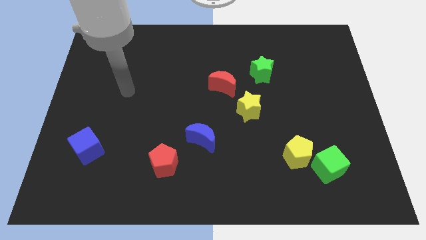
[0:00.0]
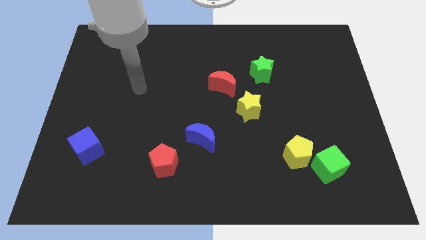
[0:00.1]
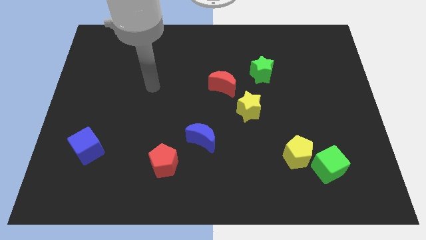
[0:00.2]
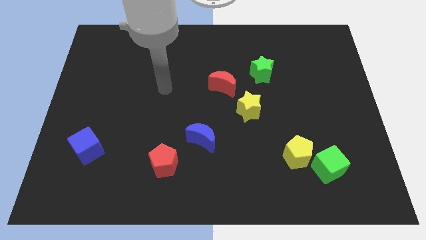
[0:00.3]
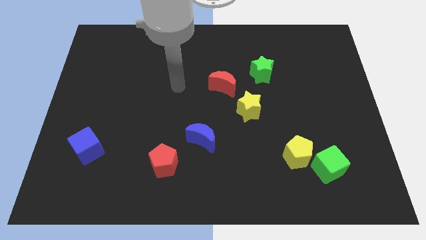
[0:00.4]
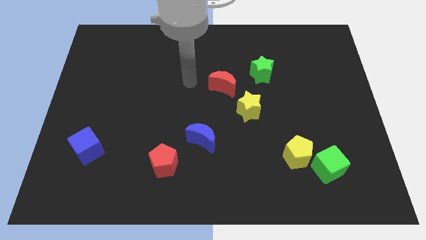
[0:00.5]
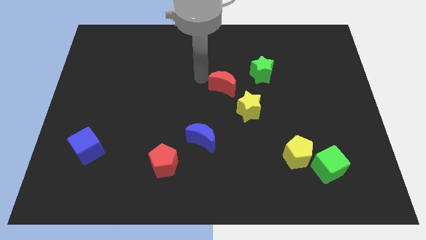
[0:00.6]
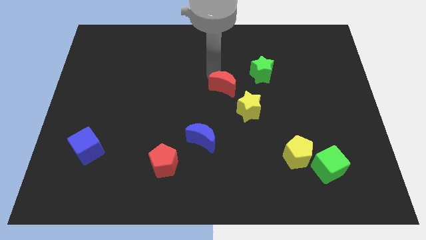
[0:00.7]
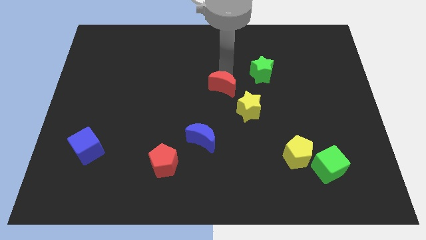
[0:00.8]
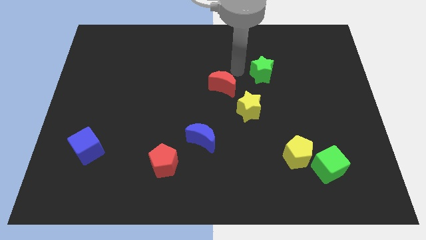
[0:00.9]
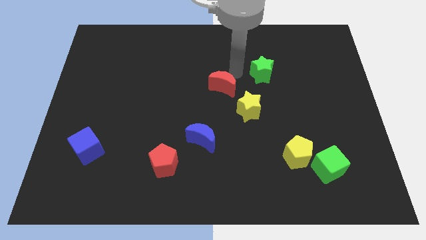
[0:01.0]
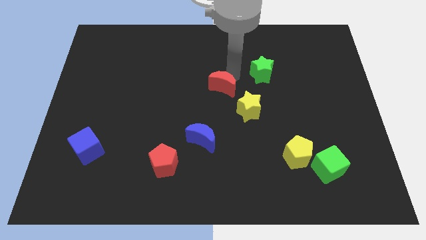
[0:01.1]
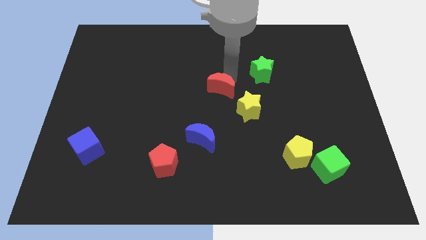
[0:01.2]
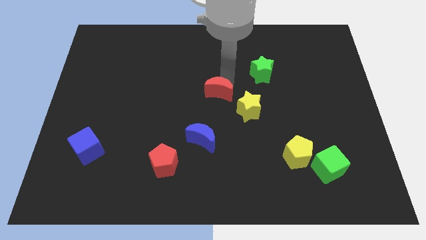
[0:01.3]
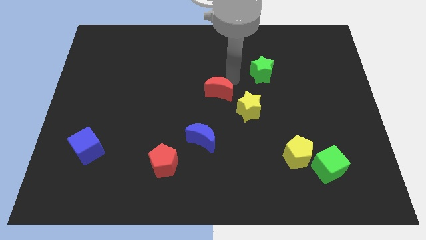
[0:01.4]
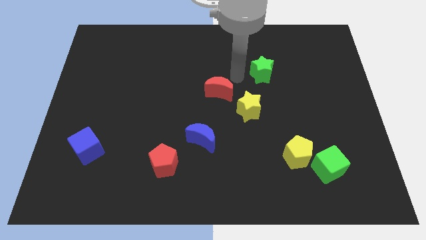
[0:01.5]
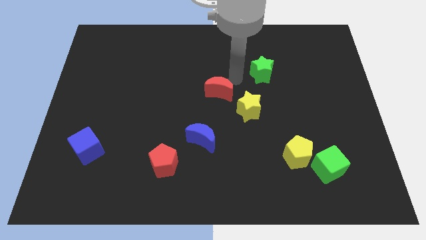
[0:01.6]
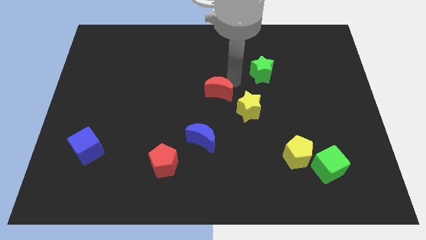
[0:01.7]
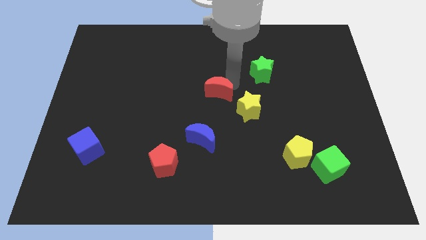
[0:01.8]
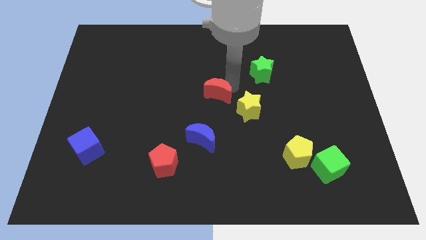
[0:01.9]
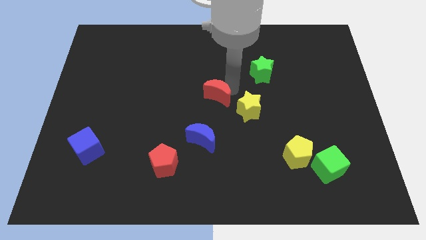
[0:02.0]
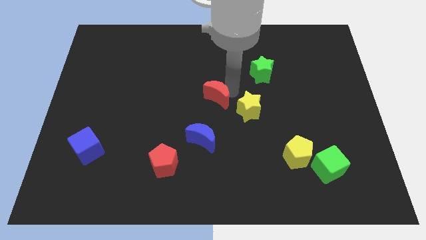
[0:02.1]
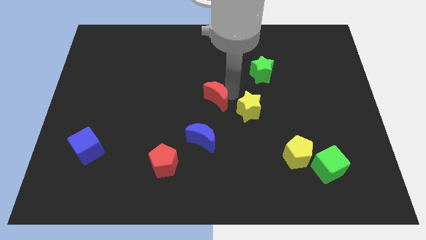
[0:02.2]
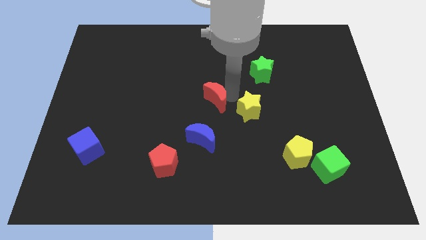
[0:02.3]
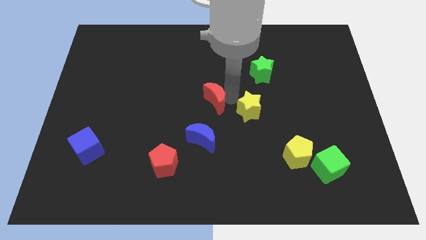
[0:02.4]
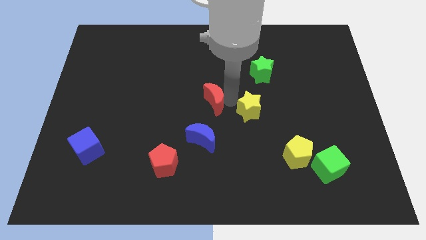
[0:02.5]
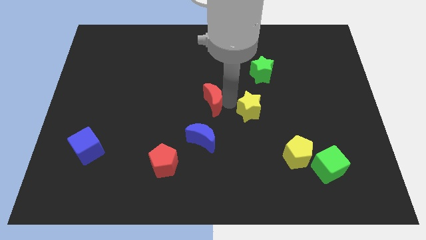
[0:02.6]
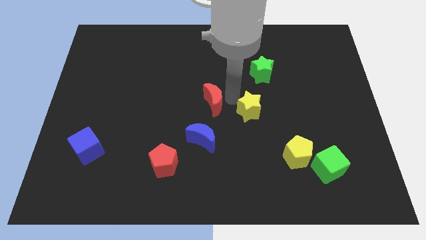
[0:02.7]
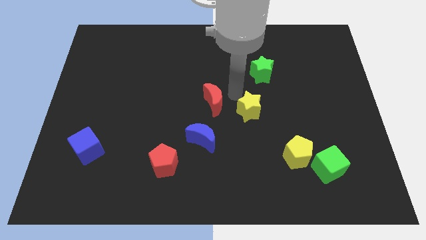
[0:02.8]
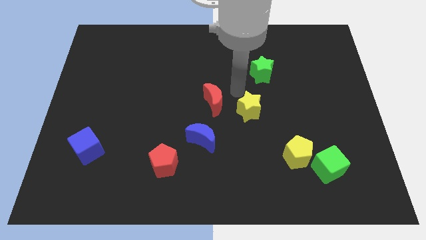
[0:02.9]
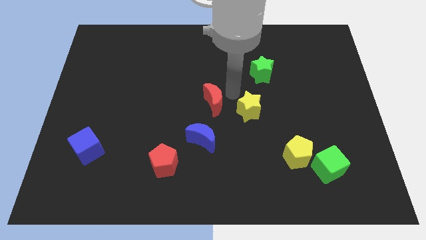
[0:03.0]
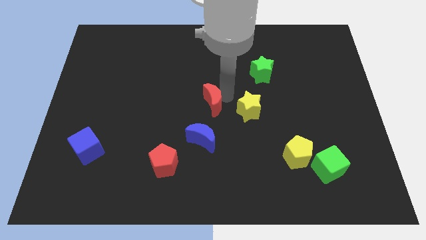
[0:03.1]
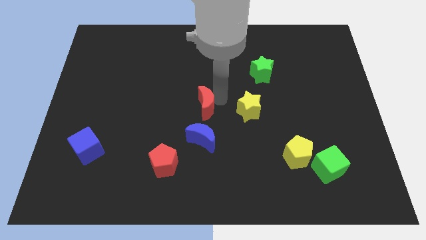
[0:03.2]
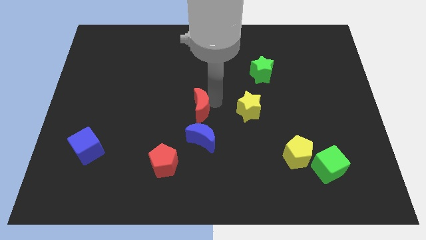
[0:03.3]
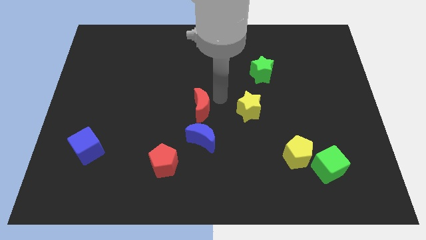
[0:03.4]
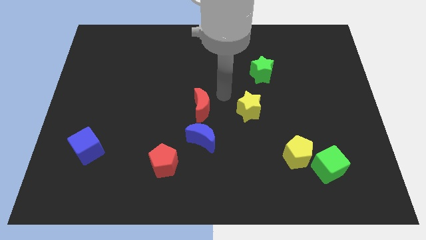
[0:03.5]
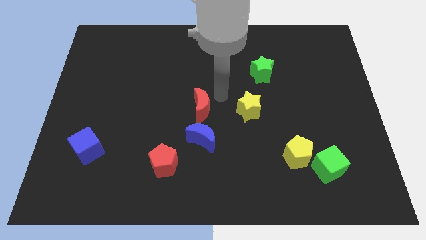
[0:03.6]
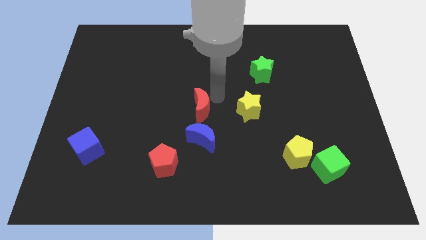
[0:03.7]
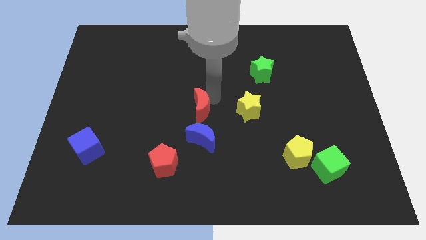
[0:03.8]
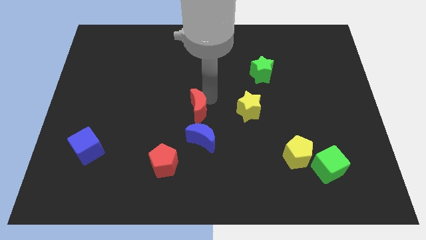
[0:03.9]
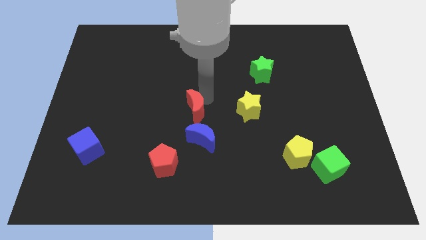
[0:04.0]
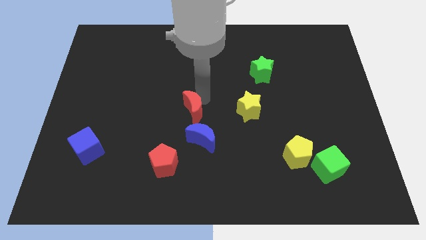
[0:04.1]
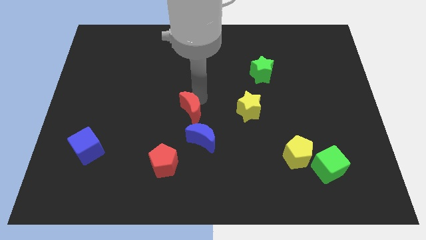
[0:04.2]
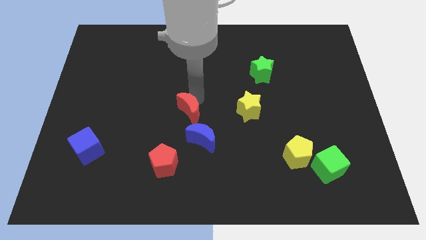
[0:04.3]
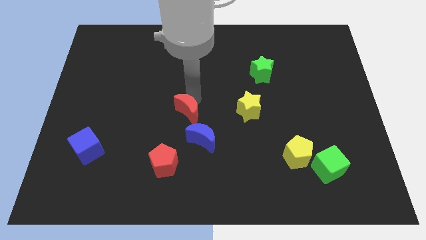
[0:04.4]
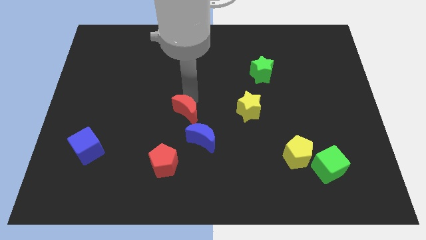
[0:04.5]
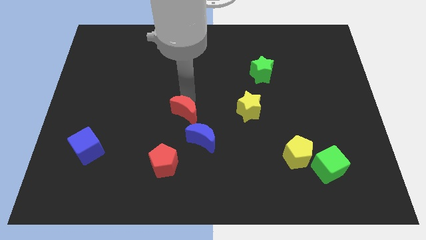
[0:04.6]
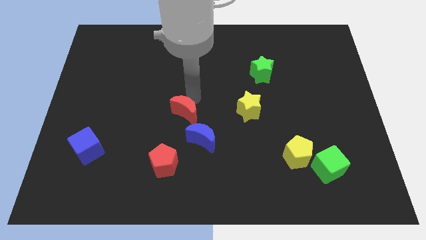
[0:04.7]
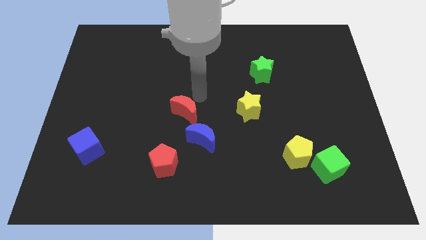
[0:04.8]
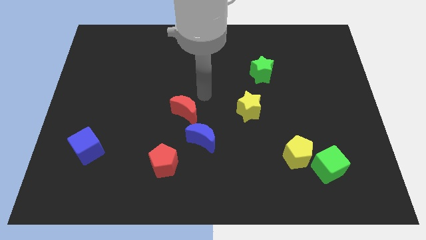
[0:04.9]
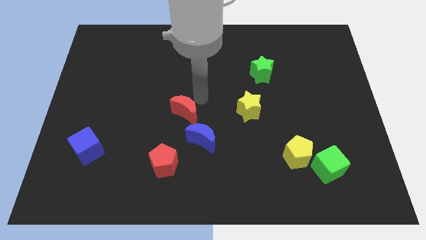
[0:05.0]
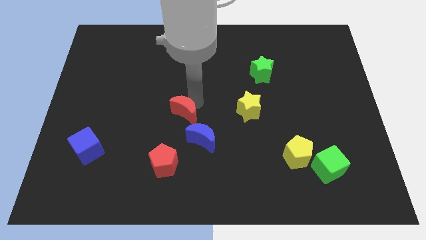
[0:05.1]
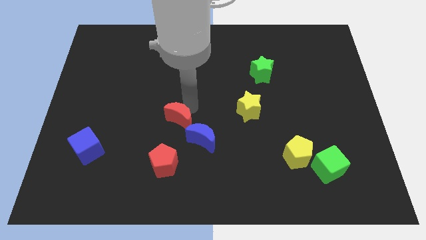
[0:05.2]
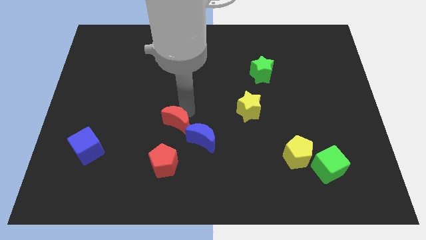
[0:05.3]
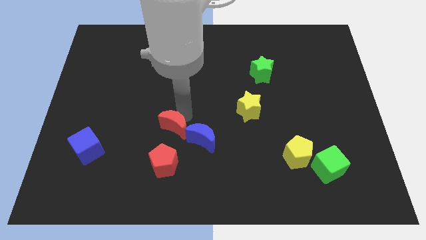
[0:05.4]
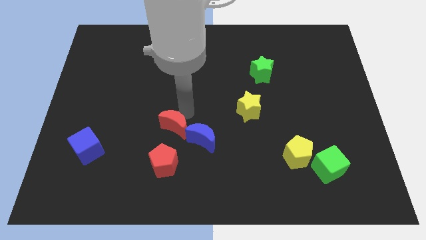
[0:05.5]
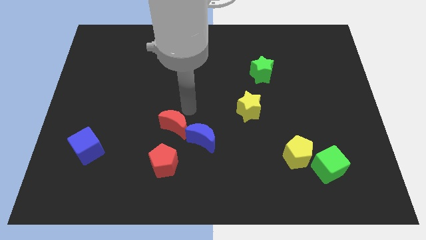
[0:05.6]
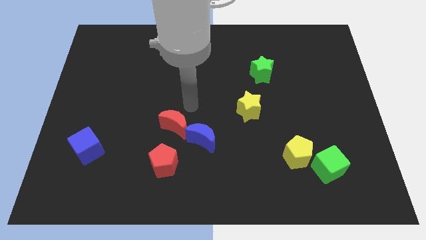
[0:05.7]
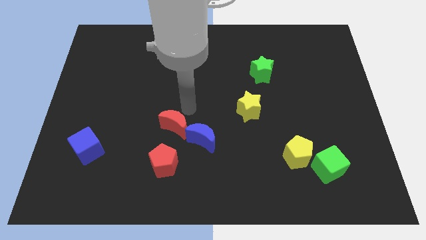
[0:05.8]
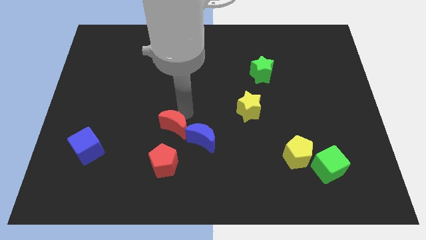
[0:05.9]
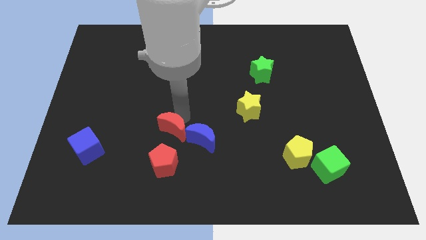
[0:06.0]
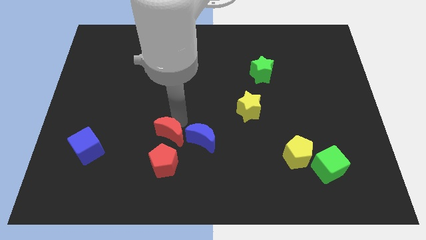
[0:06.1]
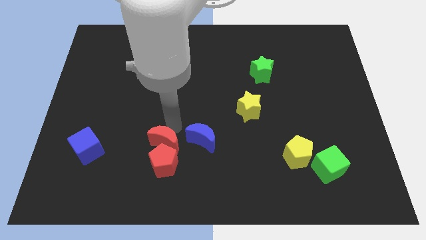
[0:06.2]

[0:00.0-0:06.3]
put the red moon close to the red pentagon

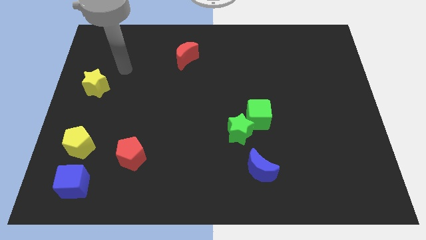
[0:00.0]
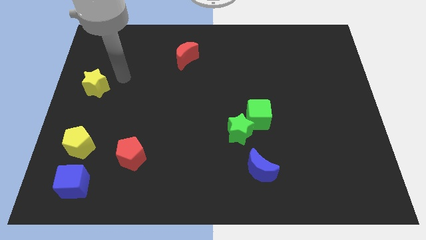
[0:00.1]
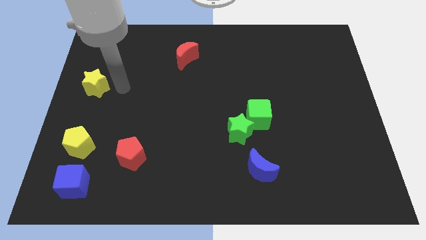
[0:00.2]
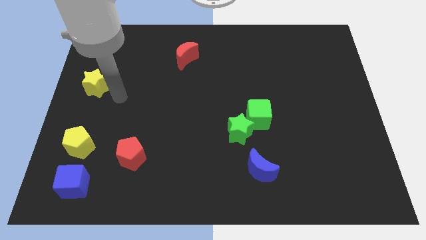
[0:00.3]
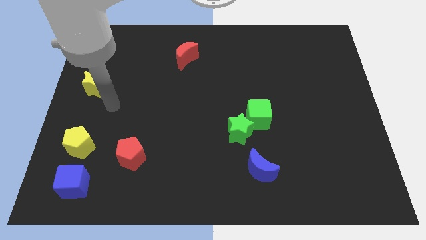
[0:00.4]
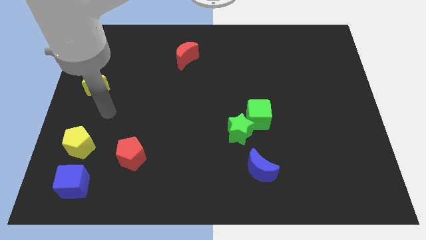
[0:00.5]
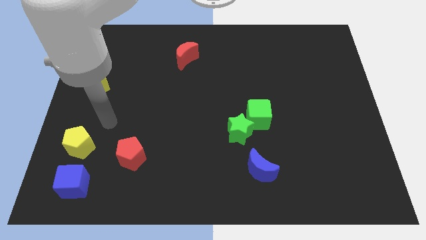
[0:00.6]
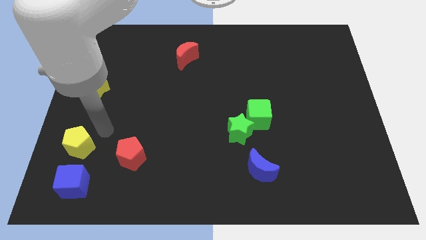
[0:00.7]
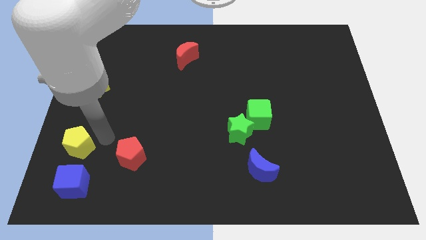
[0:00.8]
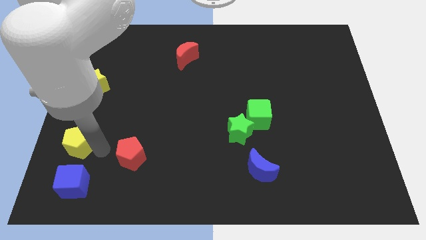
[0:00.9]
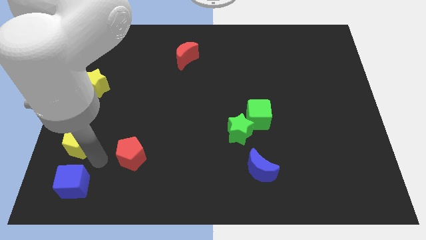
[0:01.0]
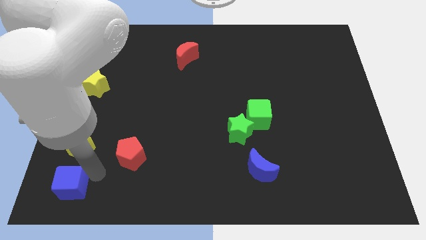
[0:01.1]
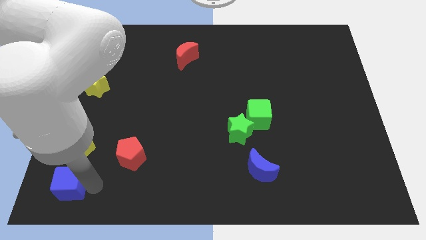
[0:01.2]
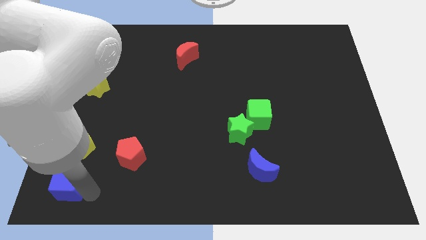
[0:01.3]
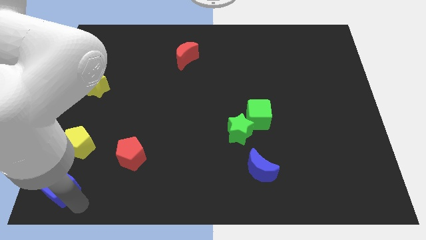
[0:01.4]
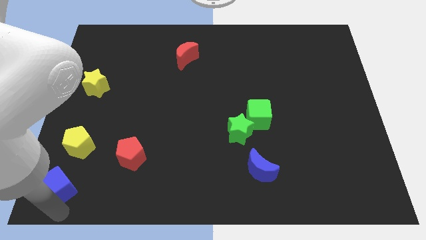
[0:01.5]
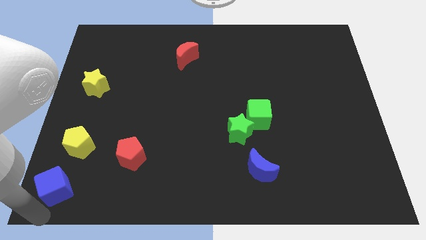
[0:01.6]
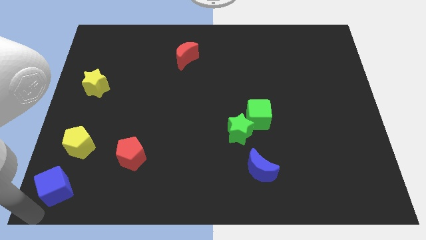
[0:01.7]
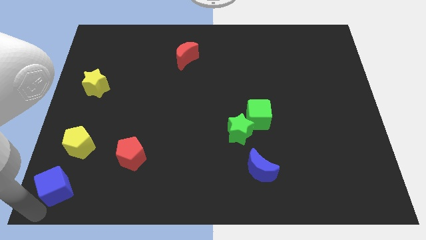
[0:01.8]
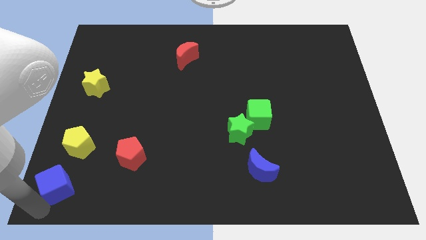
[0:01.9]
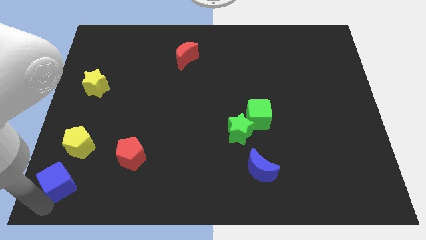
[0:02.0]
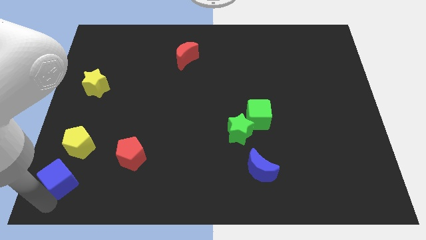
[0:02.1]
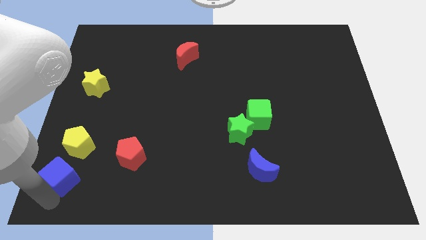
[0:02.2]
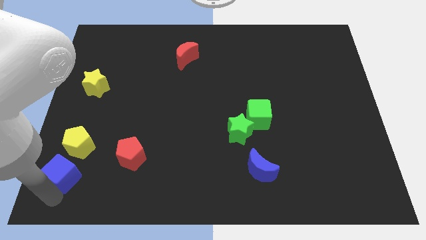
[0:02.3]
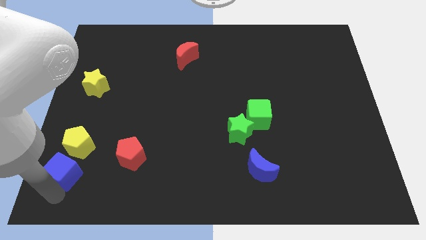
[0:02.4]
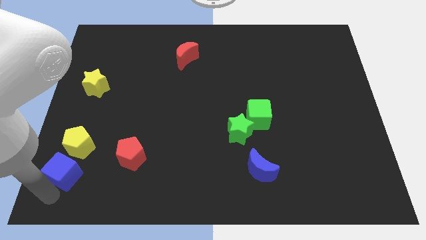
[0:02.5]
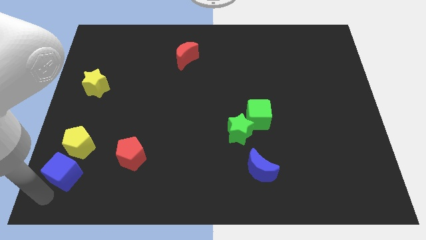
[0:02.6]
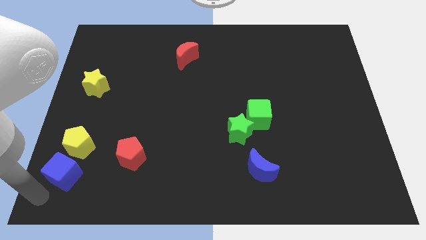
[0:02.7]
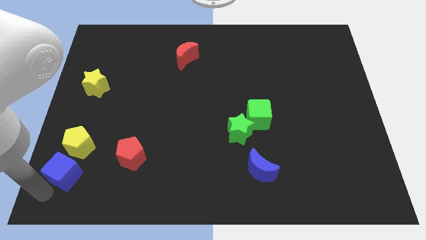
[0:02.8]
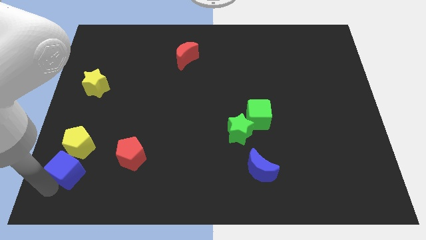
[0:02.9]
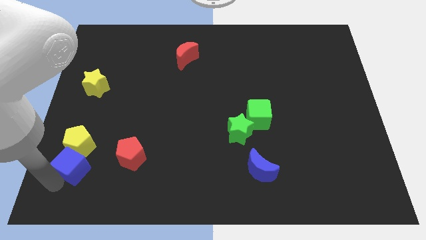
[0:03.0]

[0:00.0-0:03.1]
push the blue cube close to the yellow pentagon
